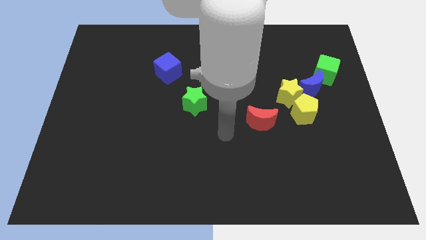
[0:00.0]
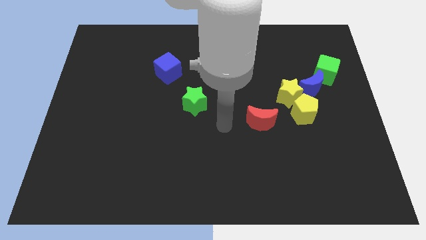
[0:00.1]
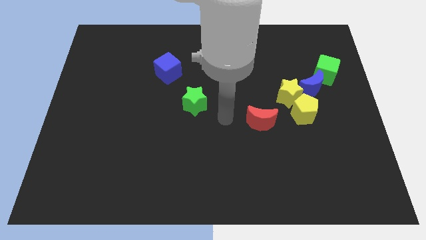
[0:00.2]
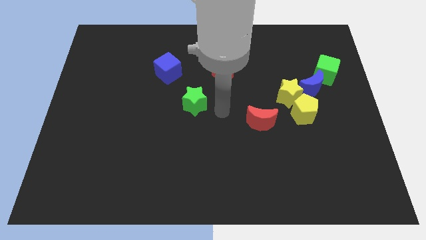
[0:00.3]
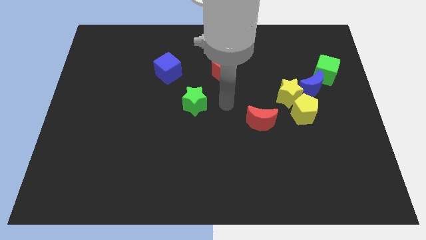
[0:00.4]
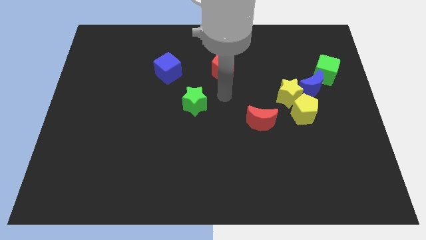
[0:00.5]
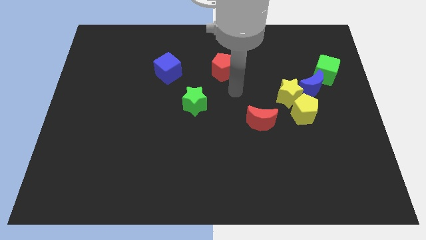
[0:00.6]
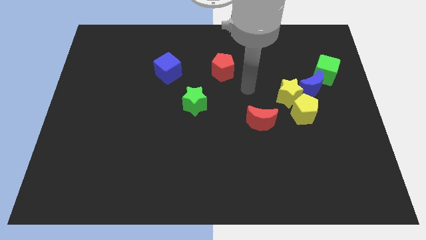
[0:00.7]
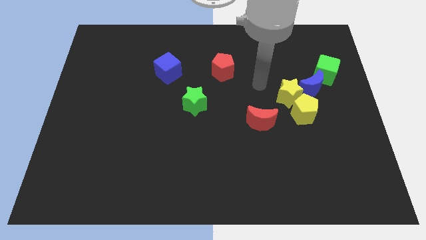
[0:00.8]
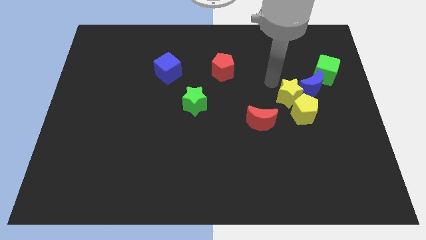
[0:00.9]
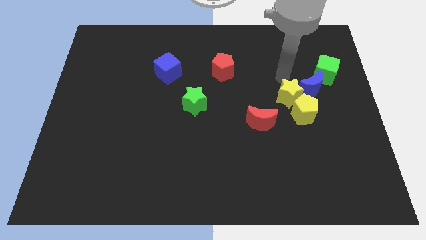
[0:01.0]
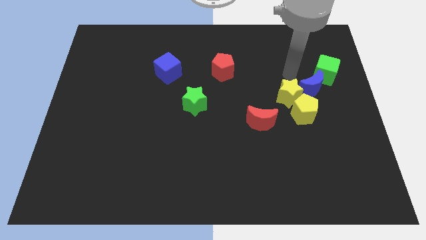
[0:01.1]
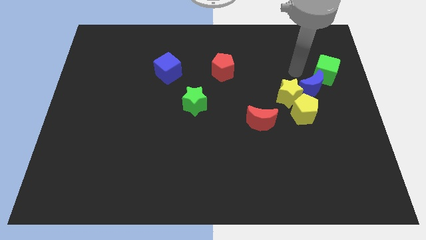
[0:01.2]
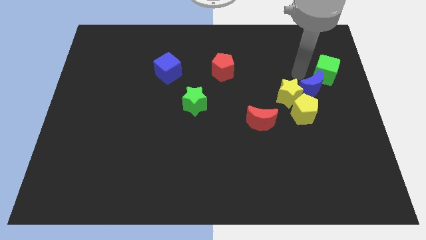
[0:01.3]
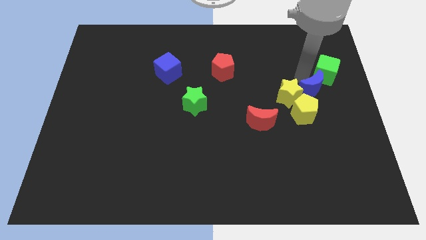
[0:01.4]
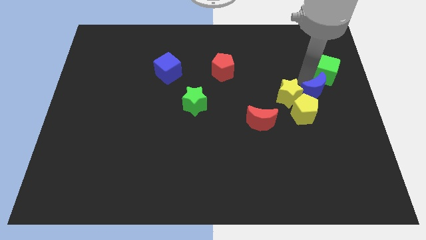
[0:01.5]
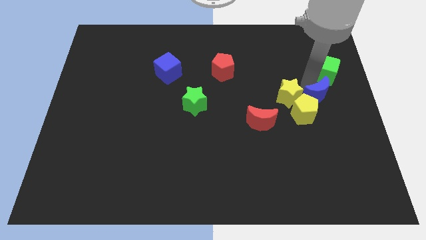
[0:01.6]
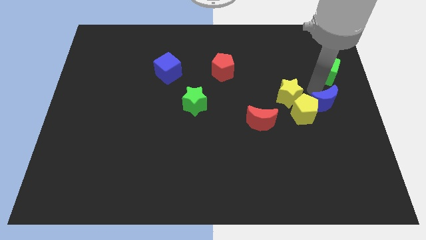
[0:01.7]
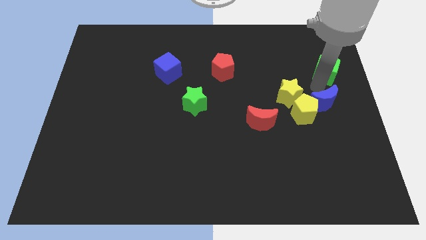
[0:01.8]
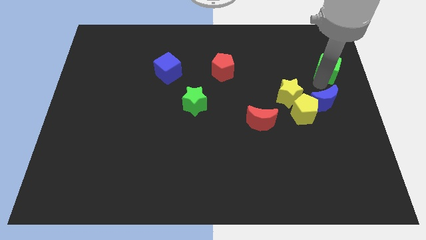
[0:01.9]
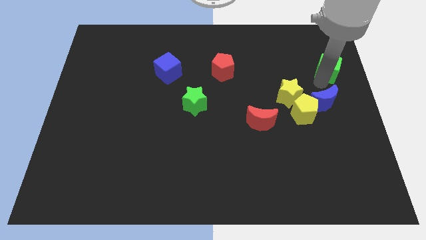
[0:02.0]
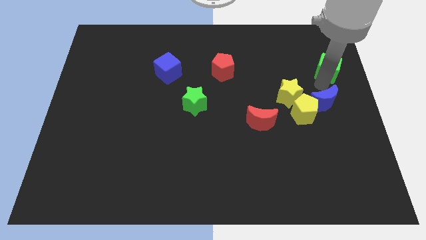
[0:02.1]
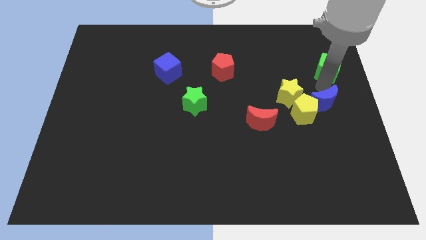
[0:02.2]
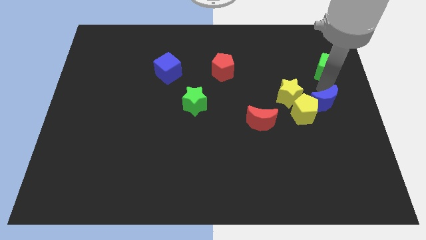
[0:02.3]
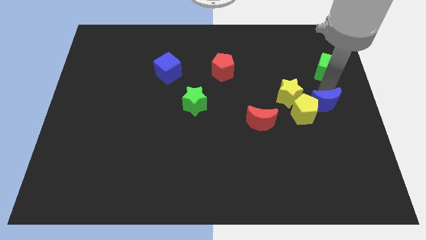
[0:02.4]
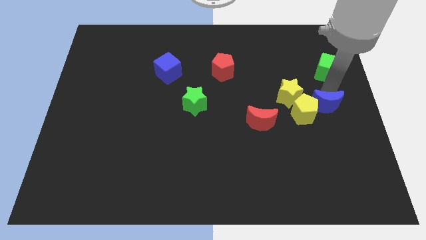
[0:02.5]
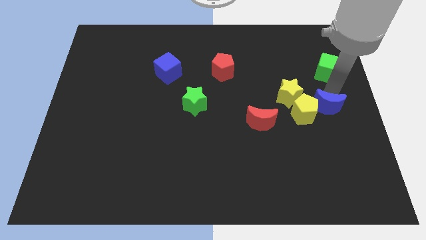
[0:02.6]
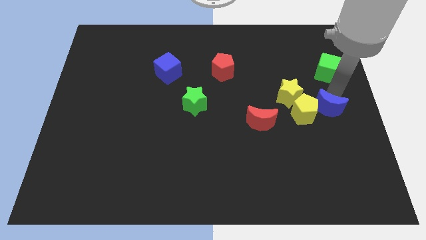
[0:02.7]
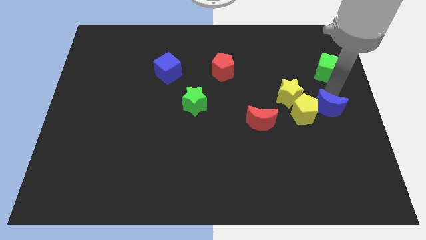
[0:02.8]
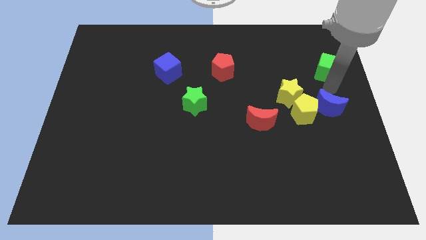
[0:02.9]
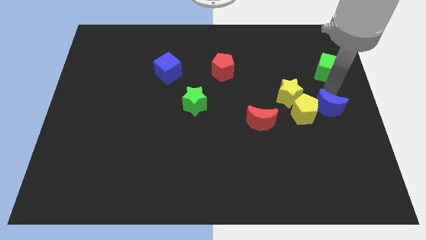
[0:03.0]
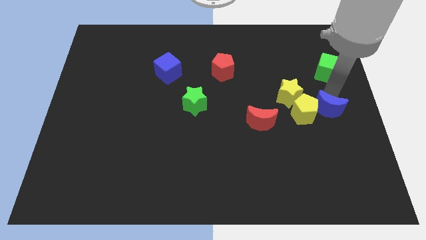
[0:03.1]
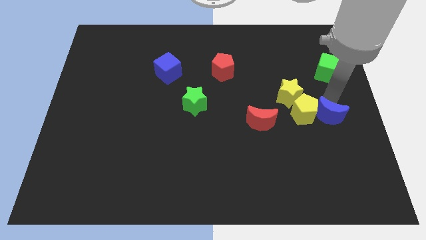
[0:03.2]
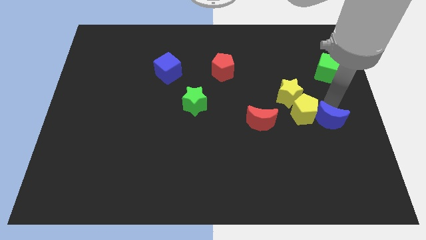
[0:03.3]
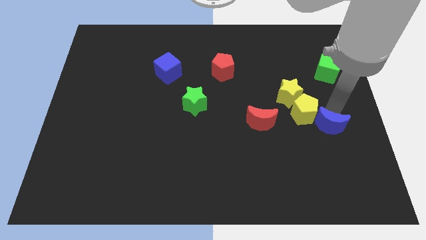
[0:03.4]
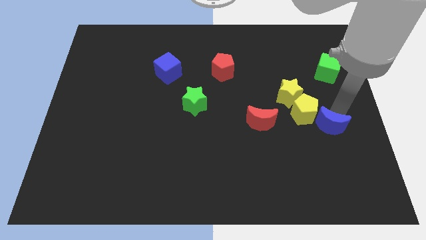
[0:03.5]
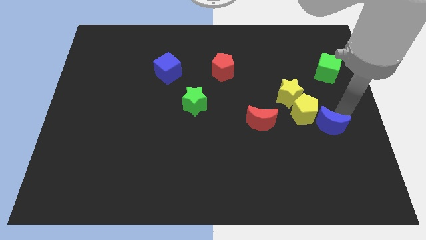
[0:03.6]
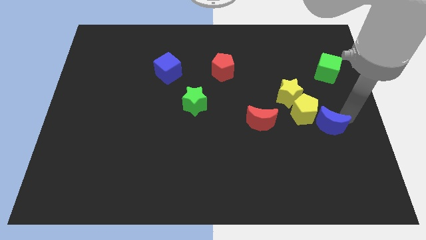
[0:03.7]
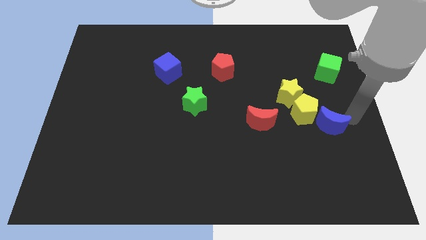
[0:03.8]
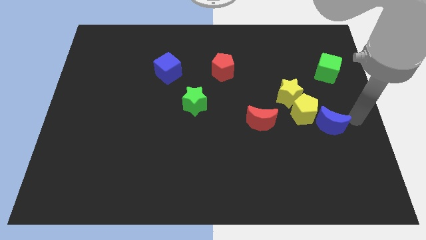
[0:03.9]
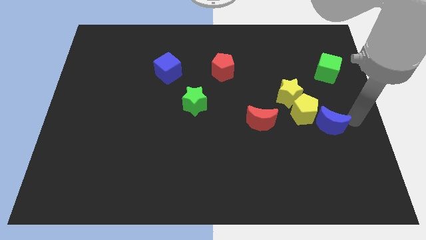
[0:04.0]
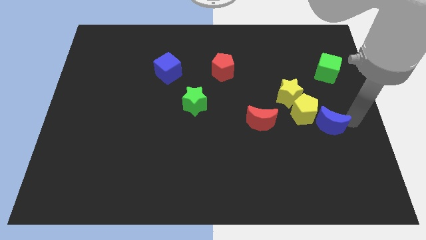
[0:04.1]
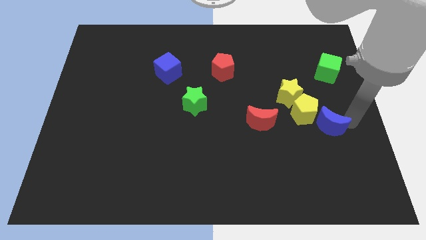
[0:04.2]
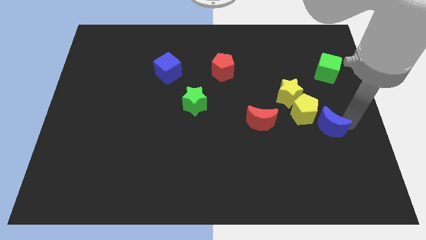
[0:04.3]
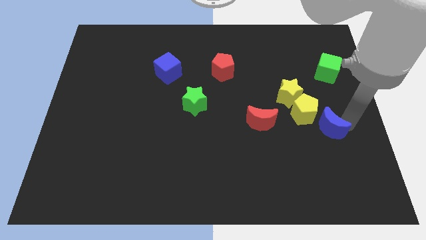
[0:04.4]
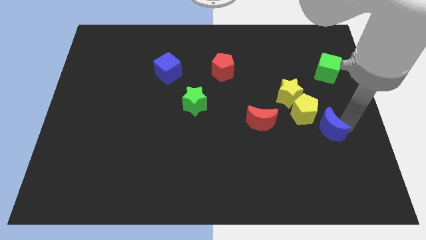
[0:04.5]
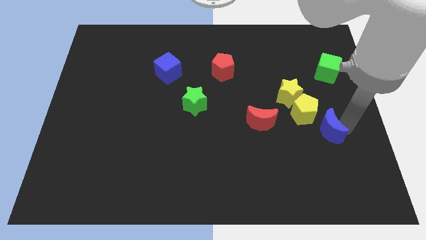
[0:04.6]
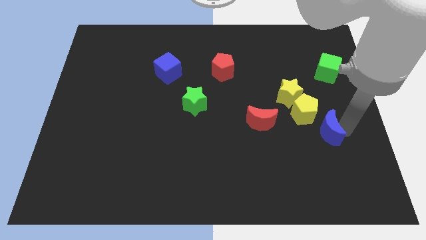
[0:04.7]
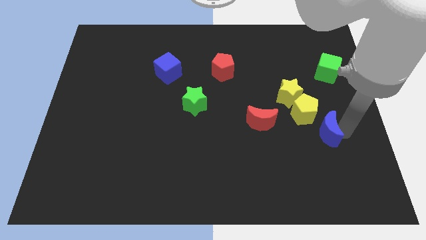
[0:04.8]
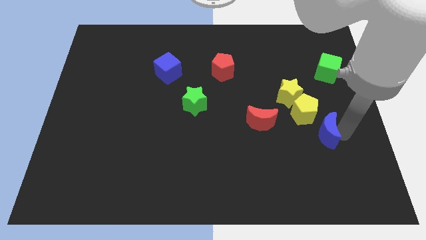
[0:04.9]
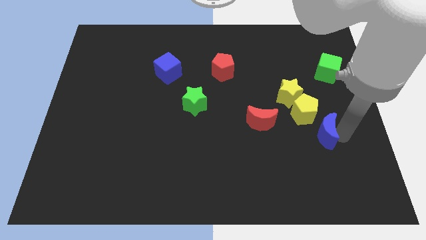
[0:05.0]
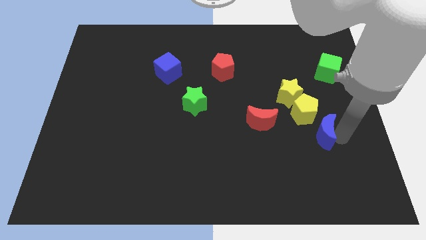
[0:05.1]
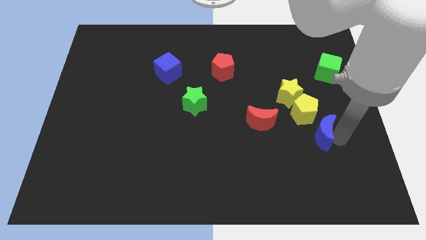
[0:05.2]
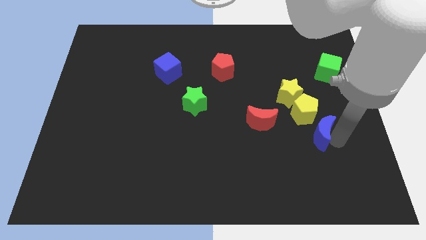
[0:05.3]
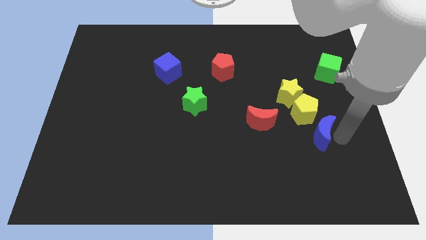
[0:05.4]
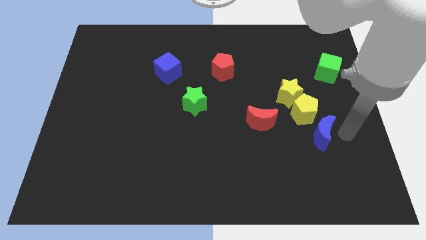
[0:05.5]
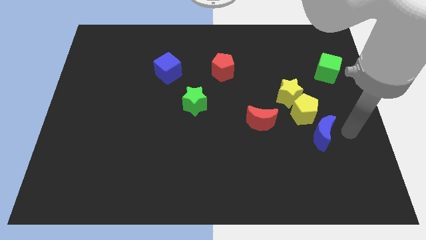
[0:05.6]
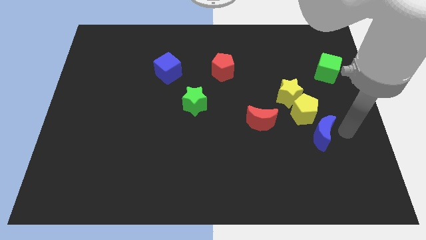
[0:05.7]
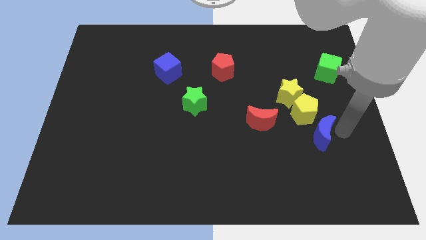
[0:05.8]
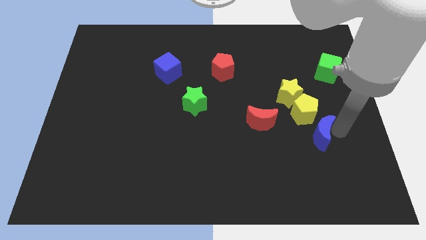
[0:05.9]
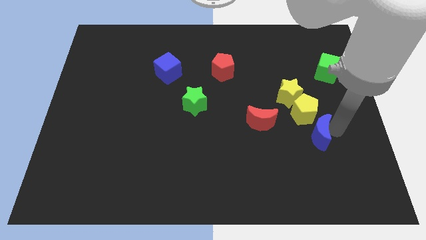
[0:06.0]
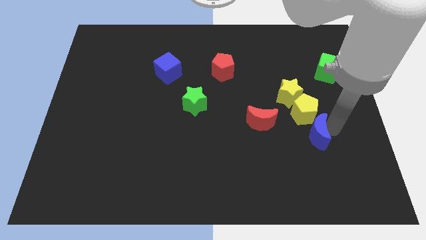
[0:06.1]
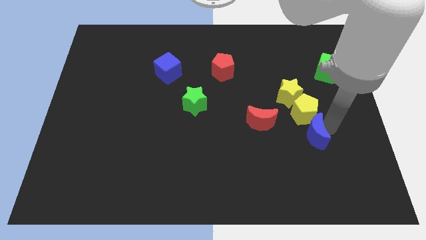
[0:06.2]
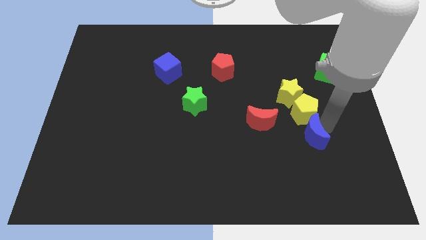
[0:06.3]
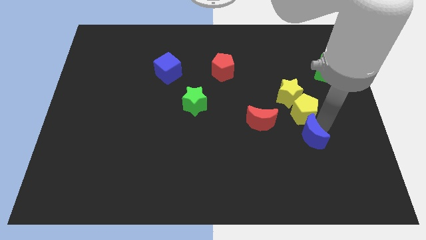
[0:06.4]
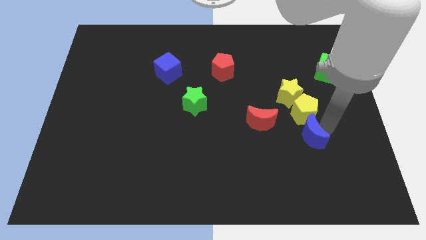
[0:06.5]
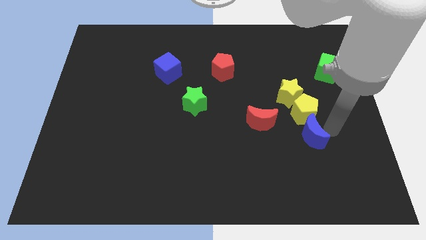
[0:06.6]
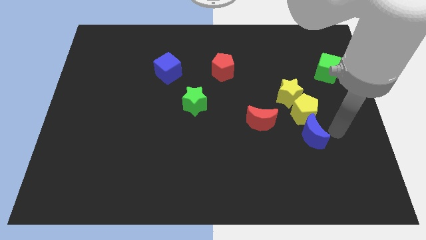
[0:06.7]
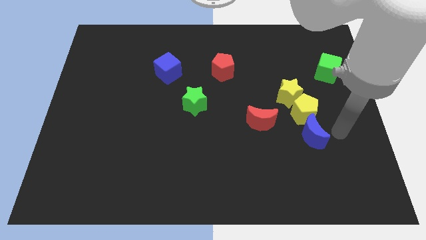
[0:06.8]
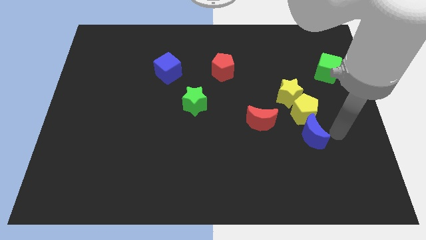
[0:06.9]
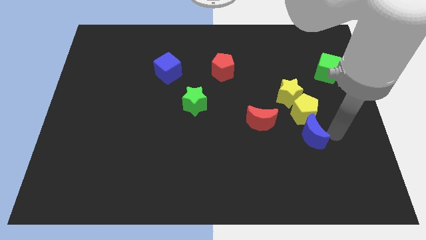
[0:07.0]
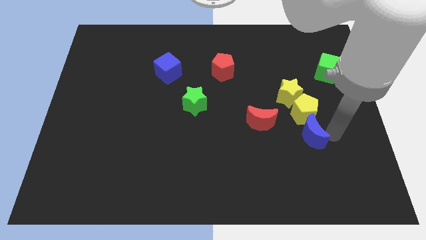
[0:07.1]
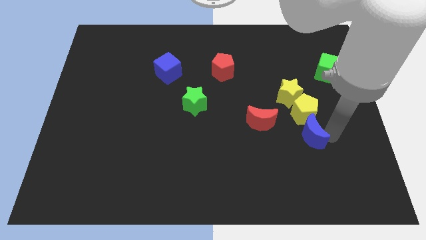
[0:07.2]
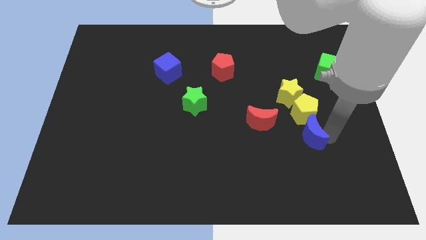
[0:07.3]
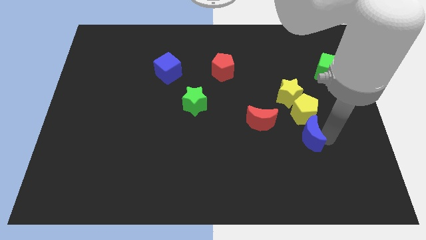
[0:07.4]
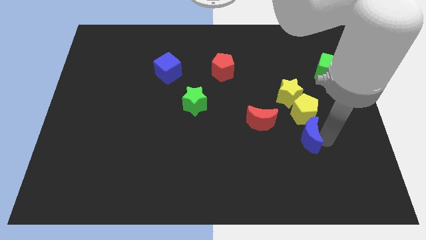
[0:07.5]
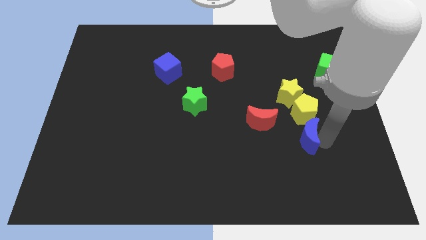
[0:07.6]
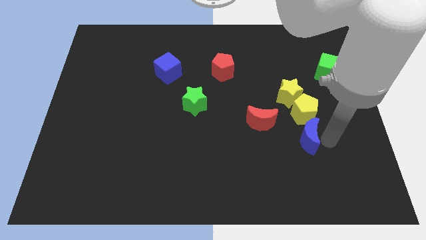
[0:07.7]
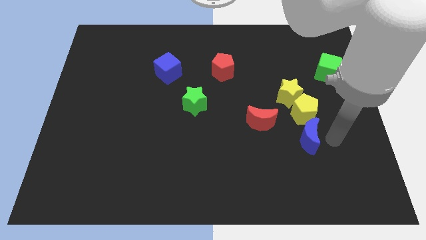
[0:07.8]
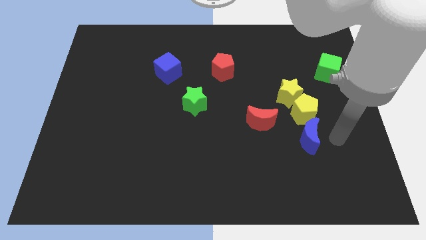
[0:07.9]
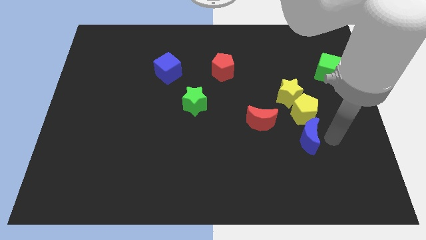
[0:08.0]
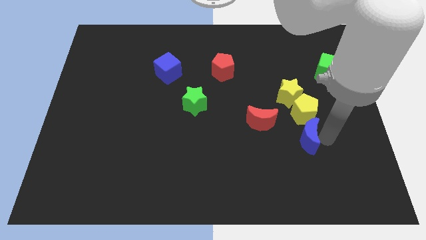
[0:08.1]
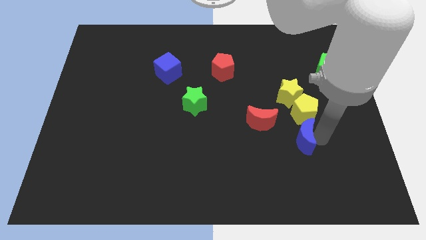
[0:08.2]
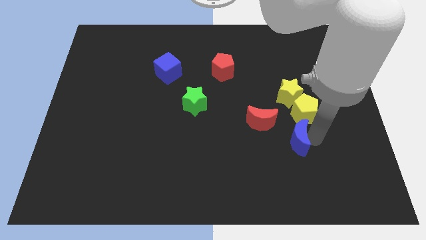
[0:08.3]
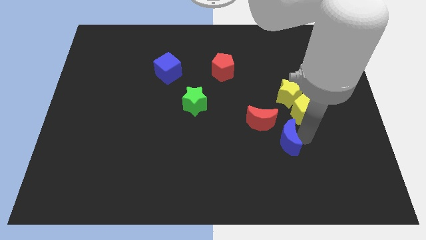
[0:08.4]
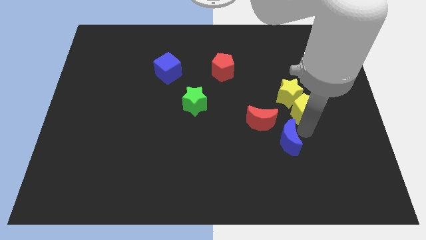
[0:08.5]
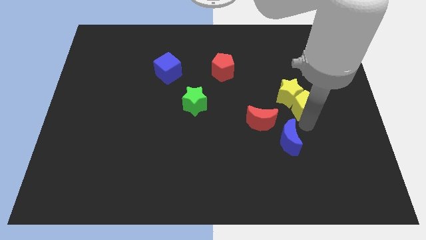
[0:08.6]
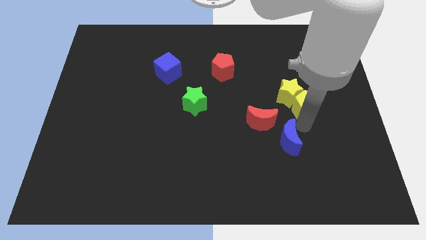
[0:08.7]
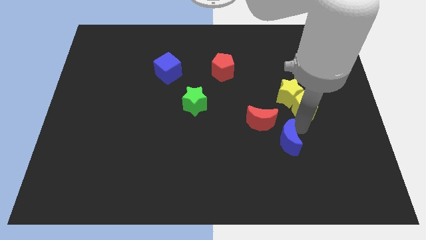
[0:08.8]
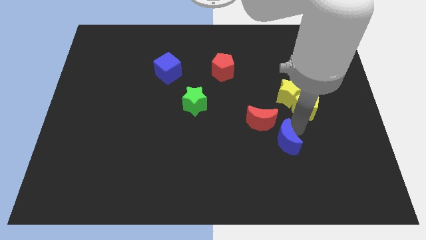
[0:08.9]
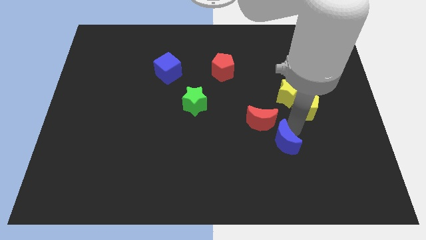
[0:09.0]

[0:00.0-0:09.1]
put the blue moon below the red moon
